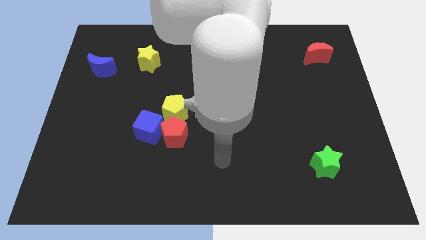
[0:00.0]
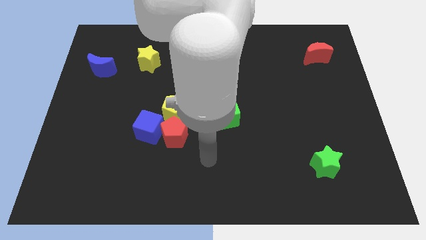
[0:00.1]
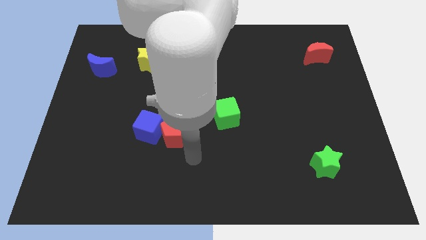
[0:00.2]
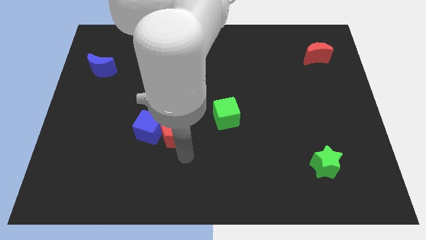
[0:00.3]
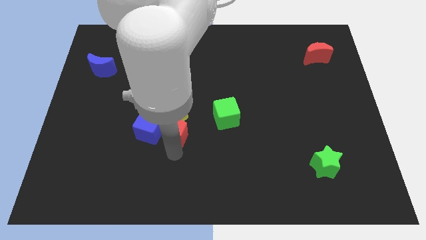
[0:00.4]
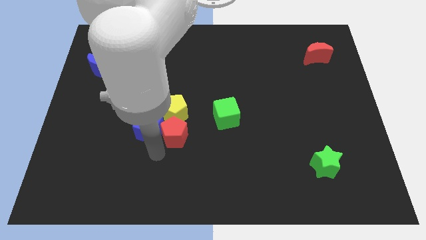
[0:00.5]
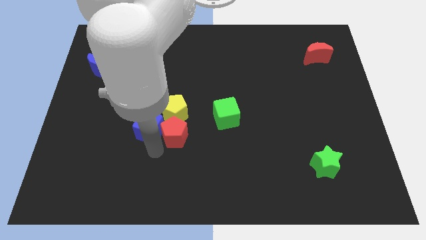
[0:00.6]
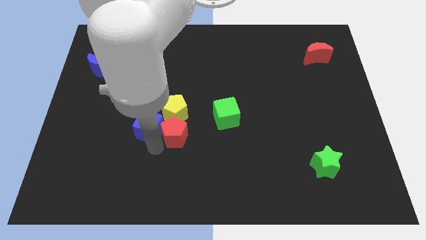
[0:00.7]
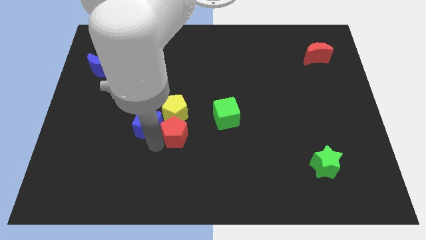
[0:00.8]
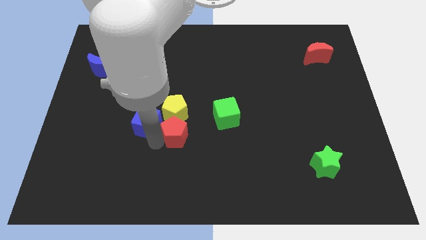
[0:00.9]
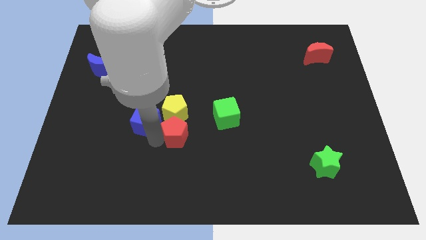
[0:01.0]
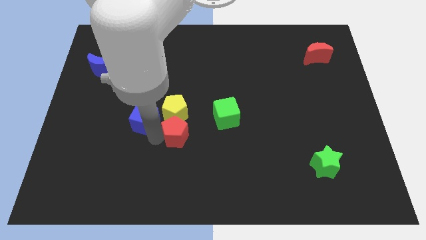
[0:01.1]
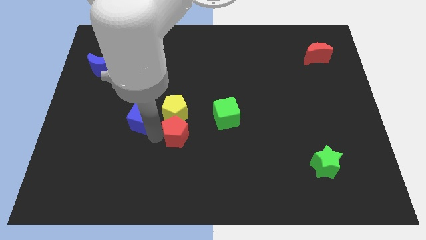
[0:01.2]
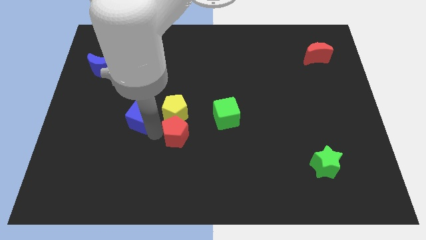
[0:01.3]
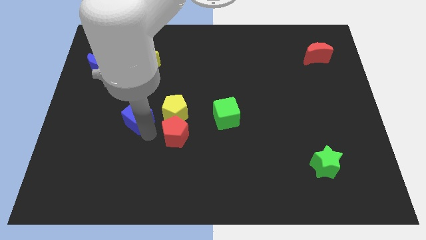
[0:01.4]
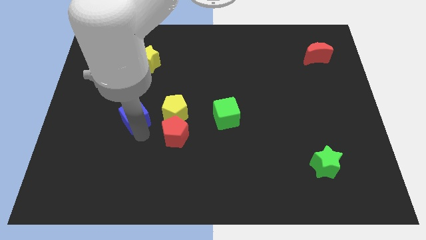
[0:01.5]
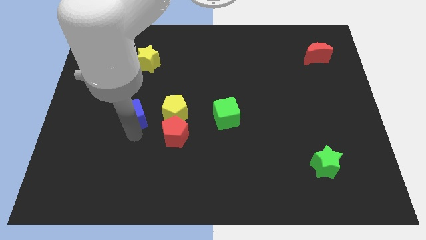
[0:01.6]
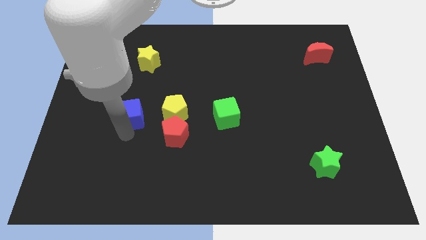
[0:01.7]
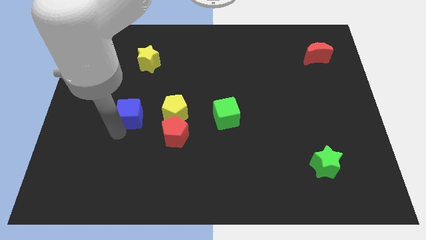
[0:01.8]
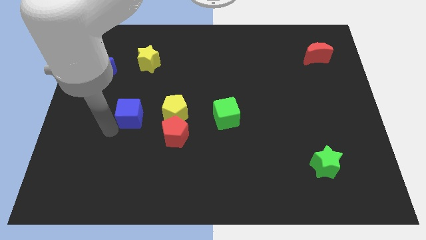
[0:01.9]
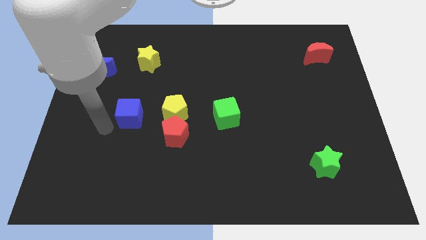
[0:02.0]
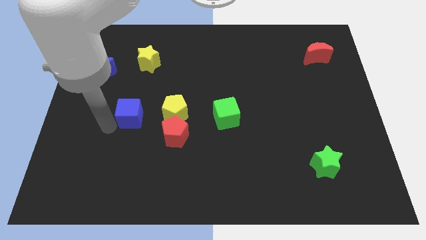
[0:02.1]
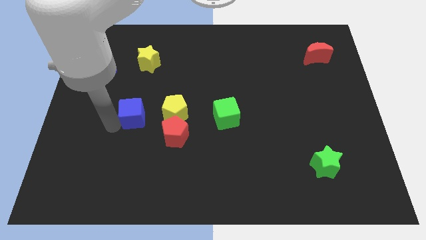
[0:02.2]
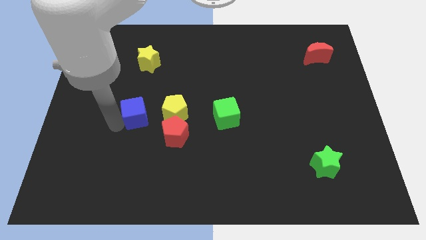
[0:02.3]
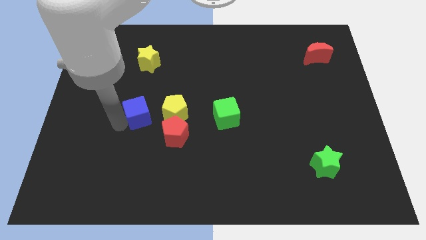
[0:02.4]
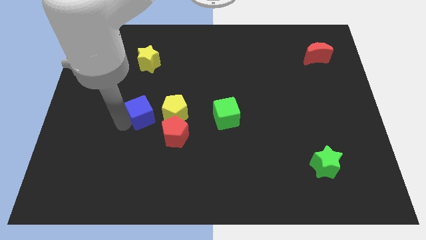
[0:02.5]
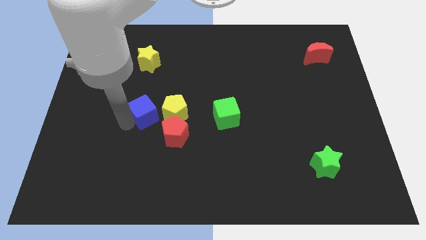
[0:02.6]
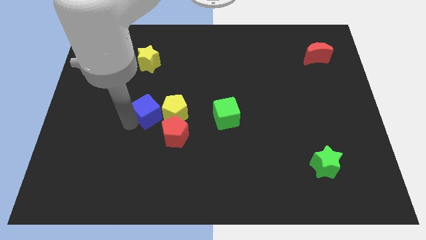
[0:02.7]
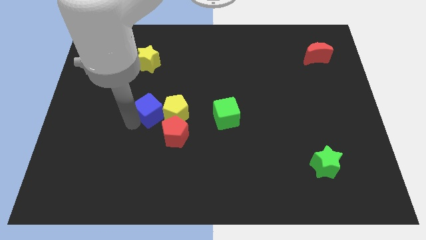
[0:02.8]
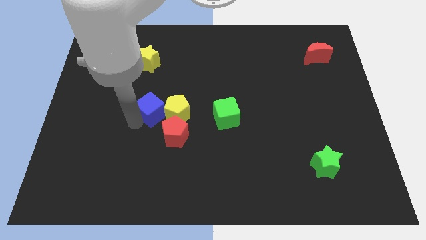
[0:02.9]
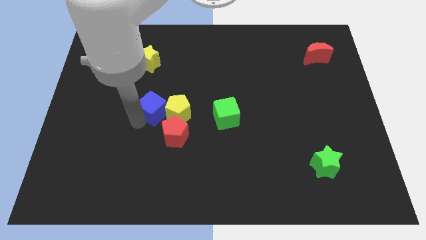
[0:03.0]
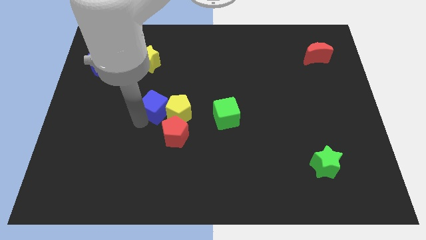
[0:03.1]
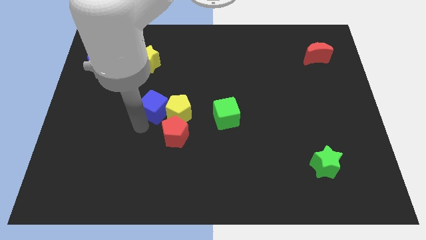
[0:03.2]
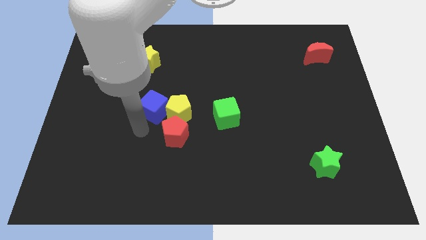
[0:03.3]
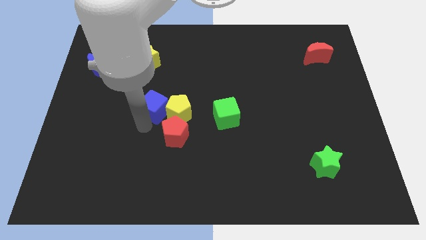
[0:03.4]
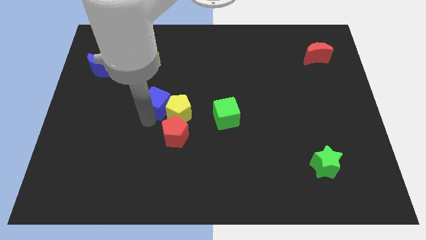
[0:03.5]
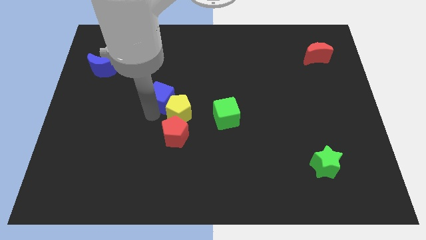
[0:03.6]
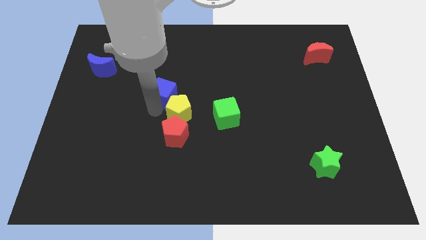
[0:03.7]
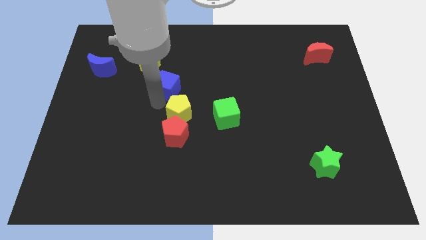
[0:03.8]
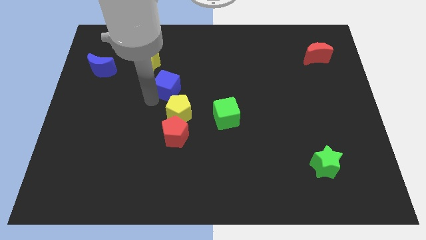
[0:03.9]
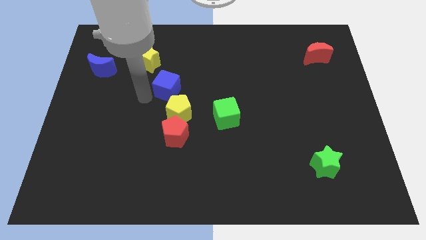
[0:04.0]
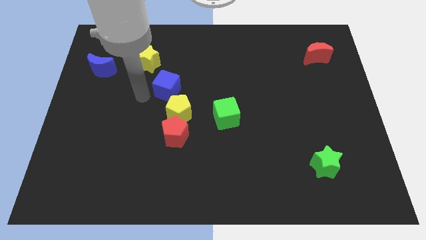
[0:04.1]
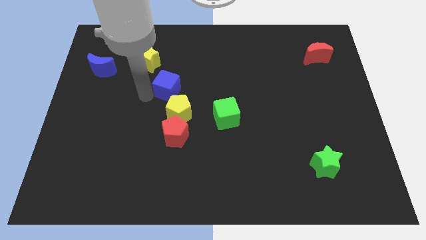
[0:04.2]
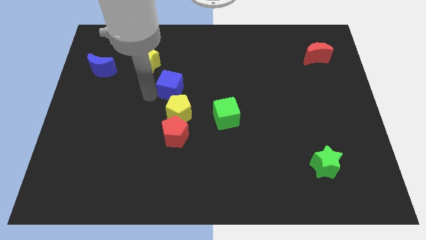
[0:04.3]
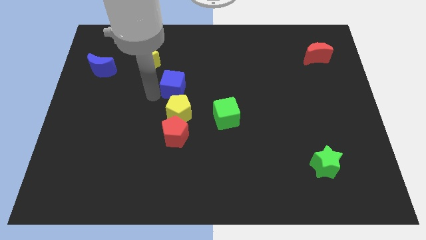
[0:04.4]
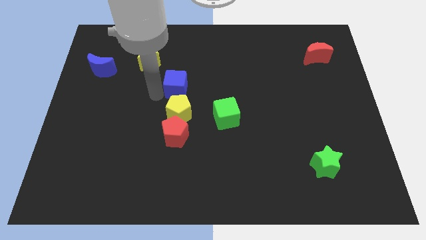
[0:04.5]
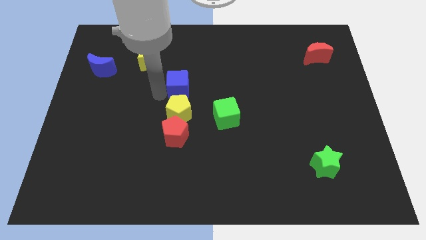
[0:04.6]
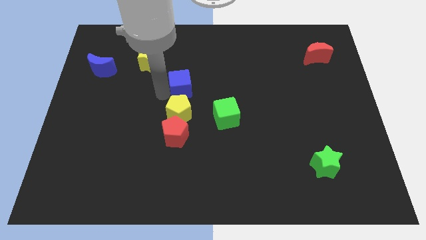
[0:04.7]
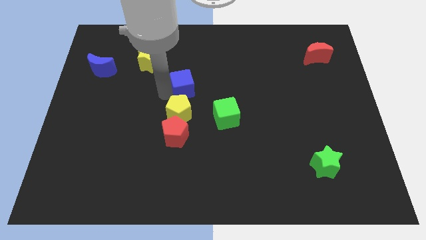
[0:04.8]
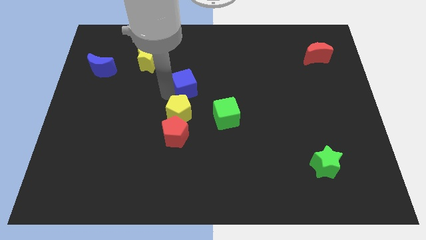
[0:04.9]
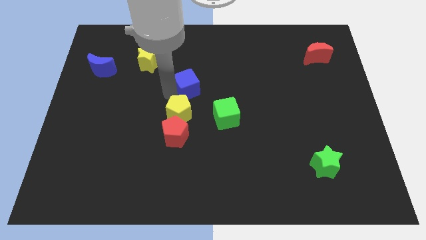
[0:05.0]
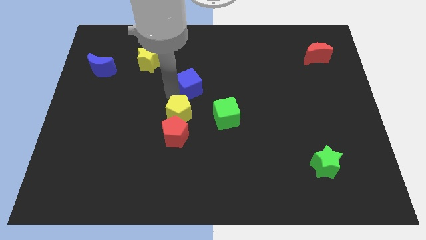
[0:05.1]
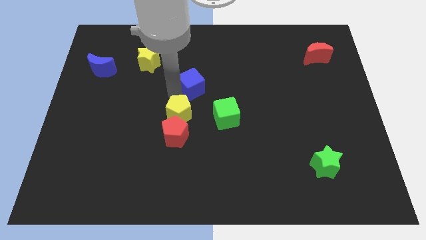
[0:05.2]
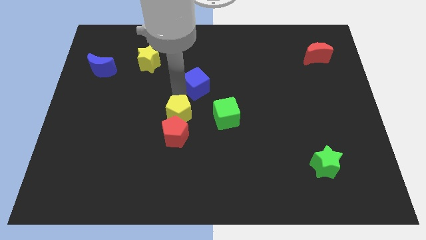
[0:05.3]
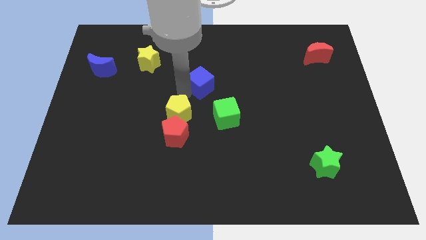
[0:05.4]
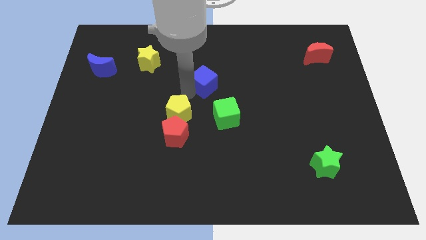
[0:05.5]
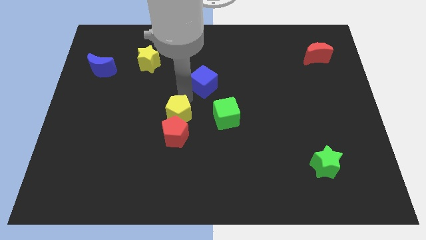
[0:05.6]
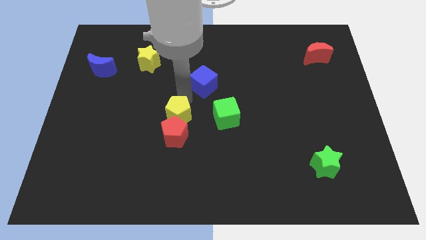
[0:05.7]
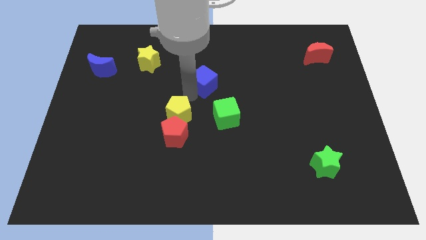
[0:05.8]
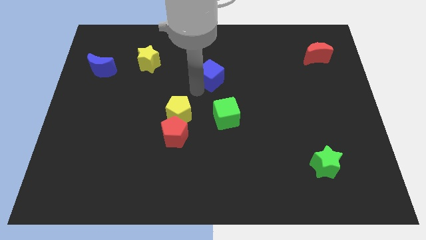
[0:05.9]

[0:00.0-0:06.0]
slide the blue cube up and right

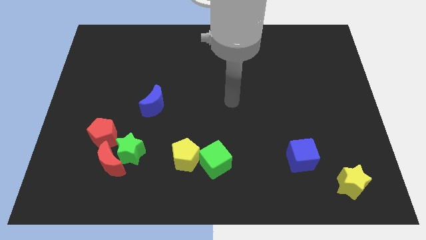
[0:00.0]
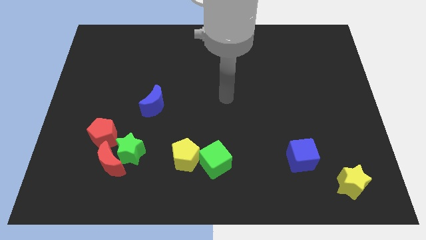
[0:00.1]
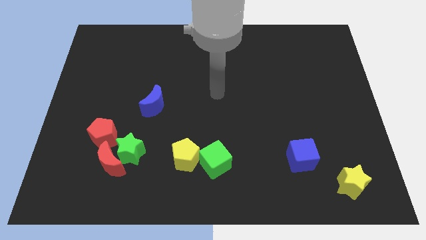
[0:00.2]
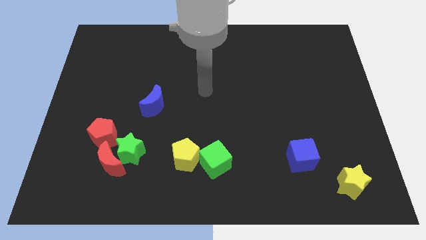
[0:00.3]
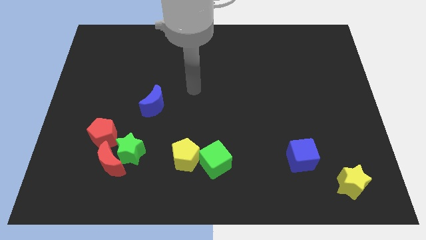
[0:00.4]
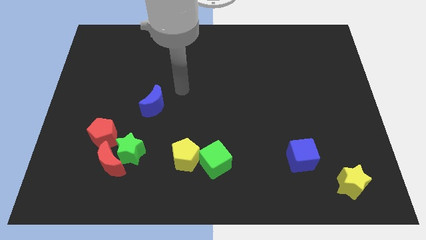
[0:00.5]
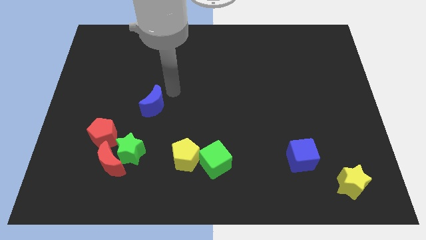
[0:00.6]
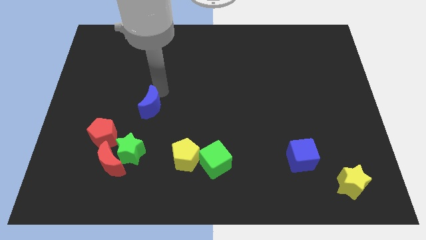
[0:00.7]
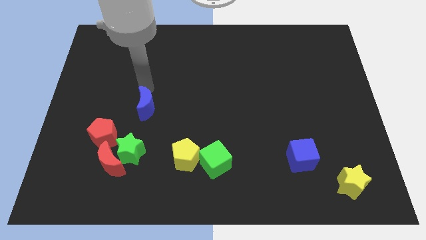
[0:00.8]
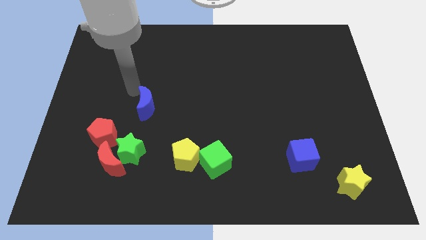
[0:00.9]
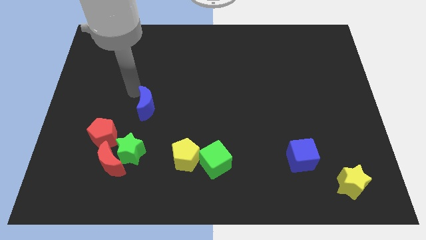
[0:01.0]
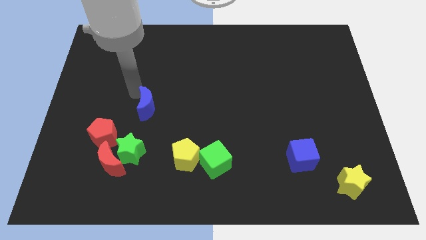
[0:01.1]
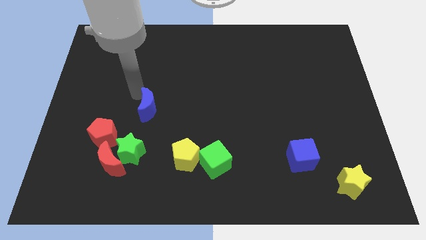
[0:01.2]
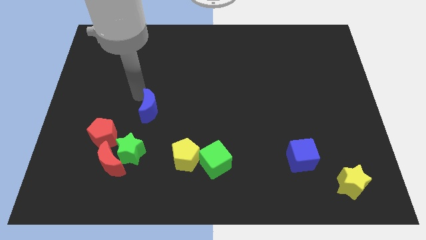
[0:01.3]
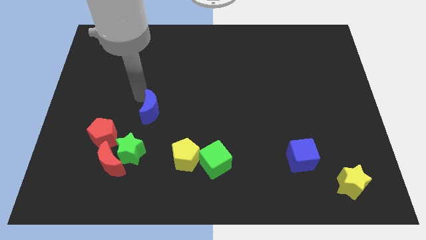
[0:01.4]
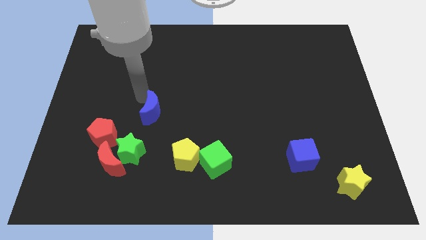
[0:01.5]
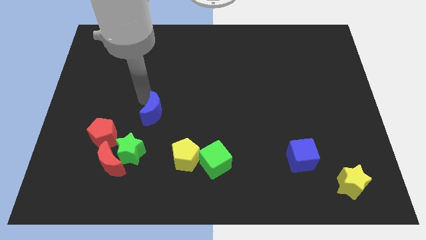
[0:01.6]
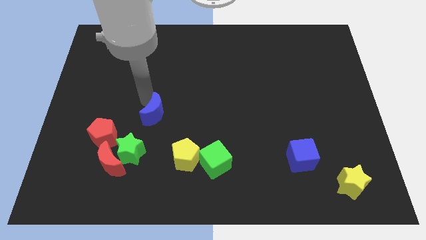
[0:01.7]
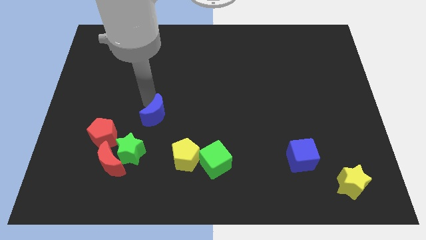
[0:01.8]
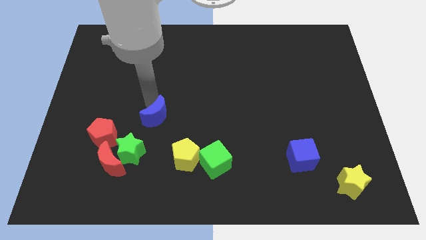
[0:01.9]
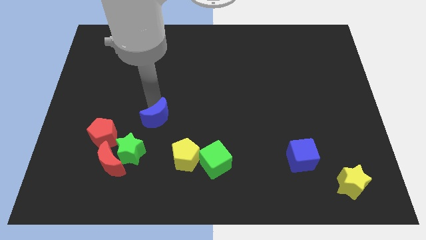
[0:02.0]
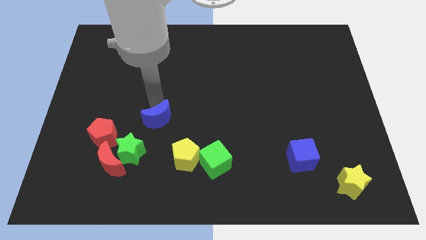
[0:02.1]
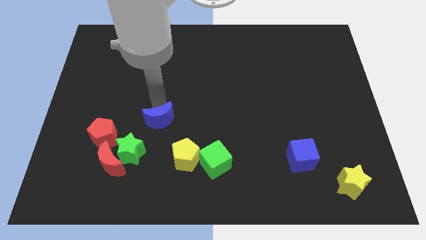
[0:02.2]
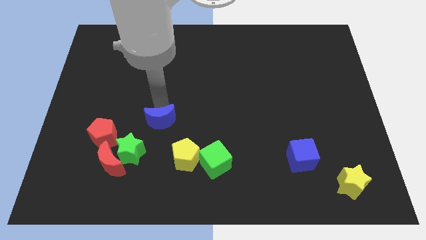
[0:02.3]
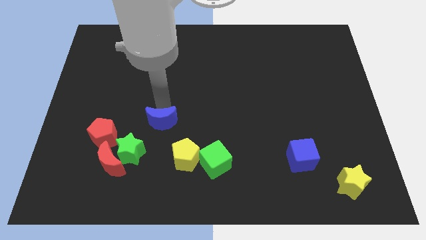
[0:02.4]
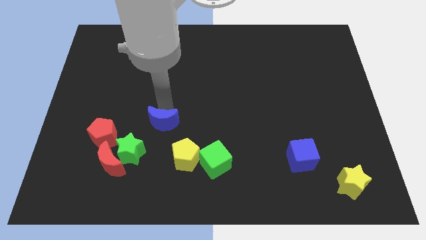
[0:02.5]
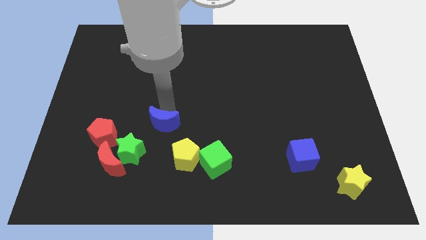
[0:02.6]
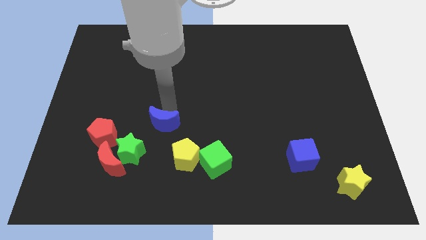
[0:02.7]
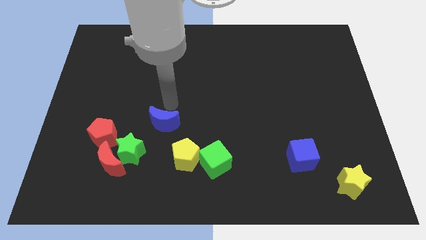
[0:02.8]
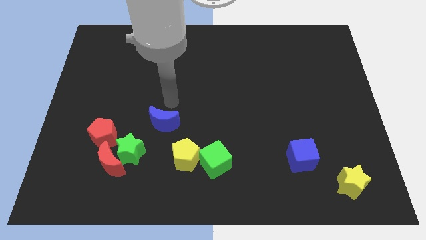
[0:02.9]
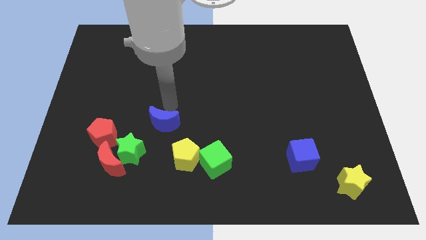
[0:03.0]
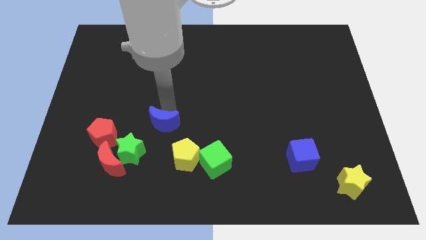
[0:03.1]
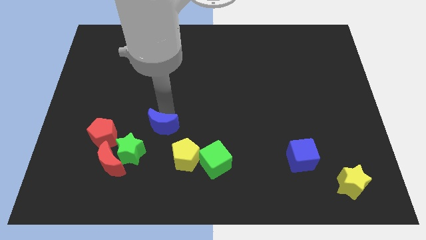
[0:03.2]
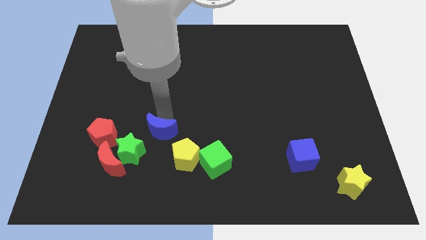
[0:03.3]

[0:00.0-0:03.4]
move the blue moon a bit downwards
